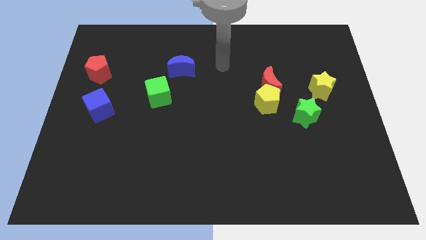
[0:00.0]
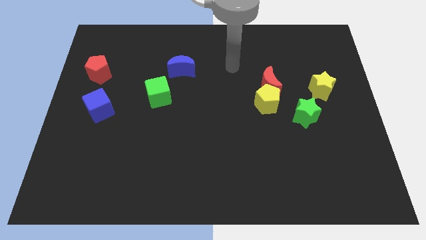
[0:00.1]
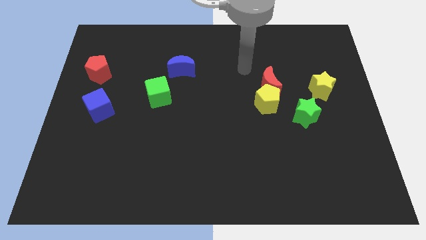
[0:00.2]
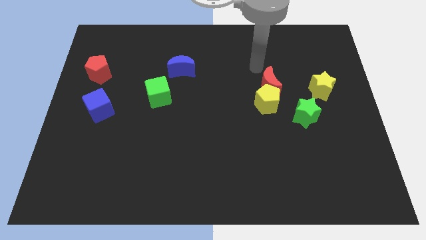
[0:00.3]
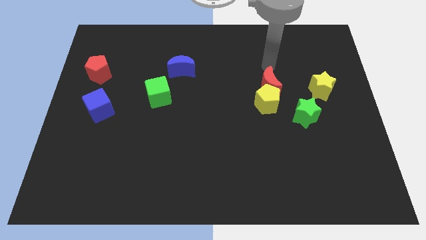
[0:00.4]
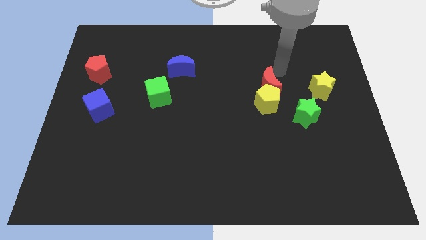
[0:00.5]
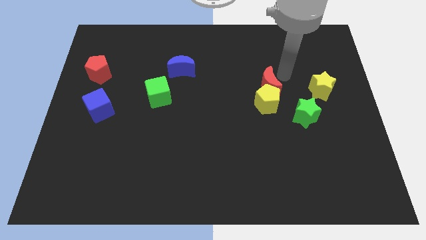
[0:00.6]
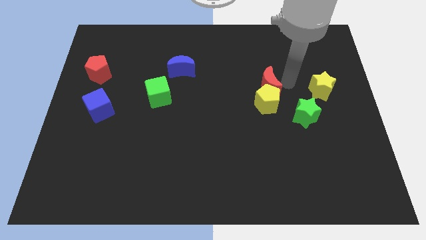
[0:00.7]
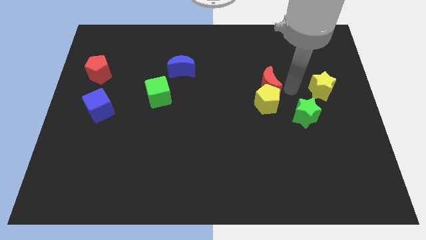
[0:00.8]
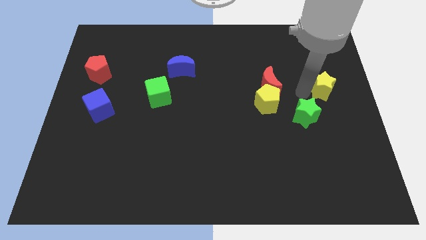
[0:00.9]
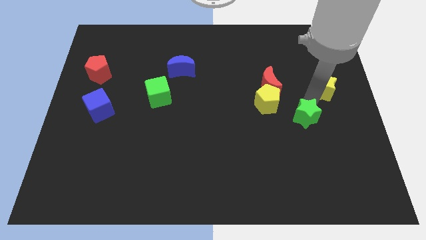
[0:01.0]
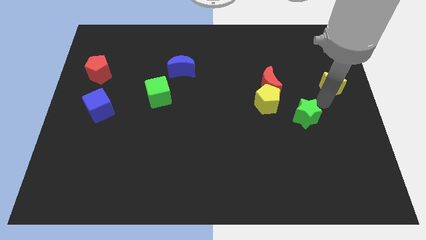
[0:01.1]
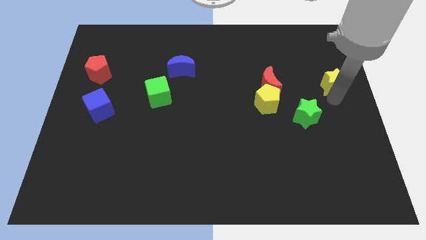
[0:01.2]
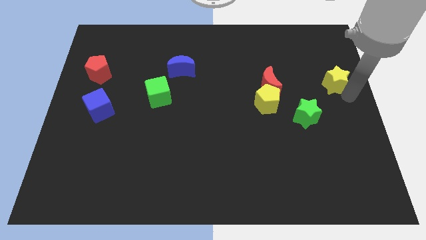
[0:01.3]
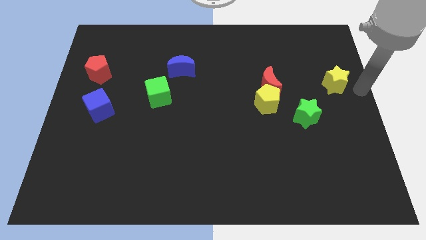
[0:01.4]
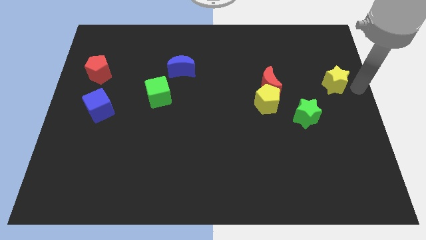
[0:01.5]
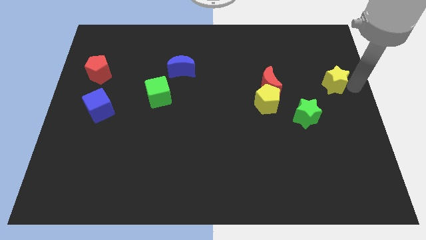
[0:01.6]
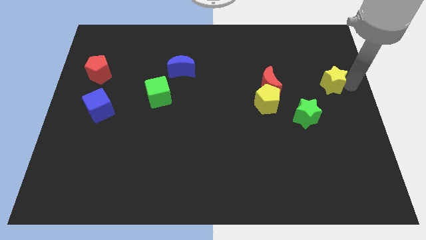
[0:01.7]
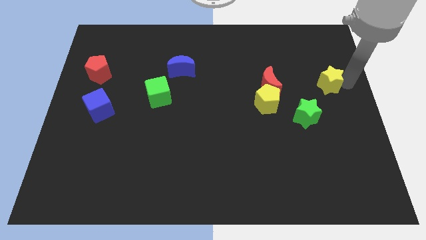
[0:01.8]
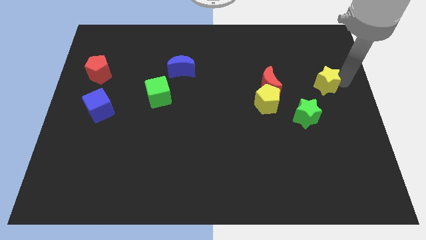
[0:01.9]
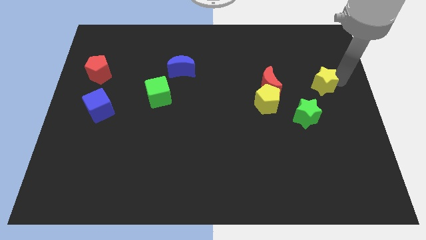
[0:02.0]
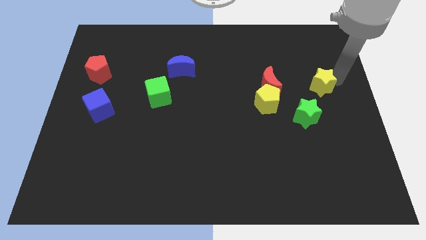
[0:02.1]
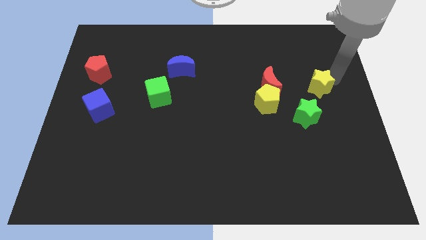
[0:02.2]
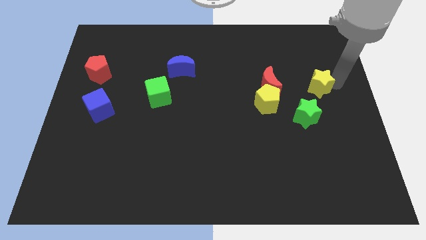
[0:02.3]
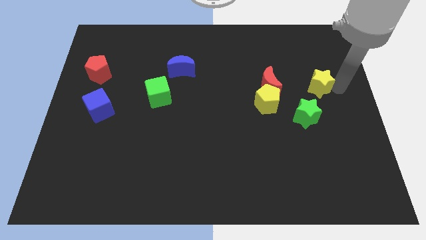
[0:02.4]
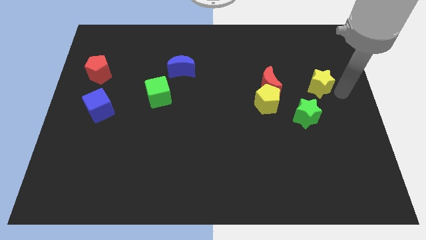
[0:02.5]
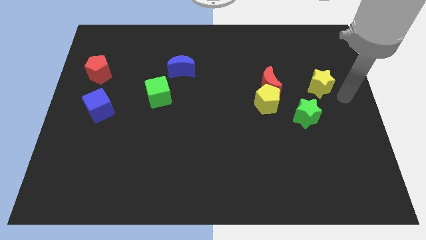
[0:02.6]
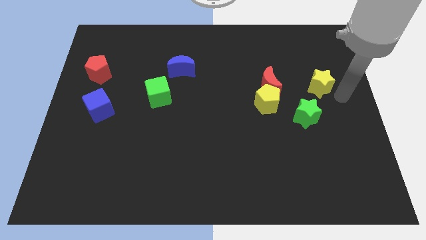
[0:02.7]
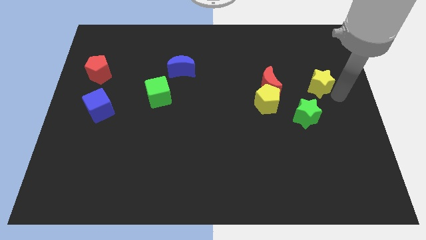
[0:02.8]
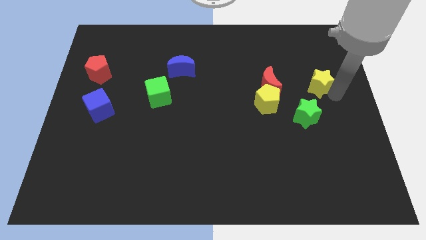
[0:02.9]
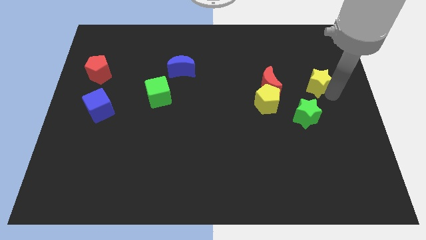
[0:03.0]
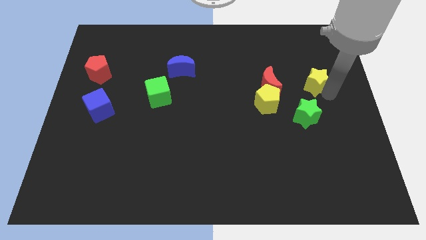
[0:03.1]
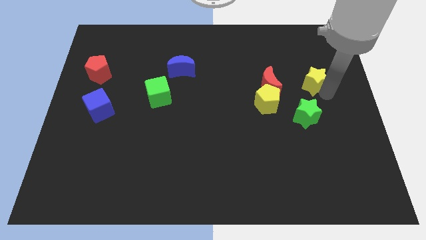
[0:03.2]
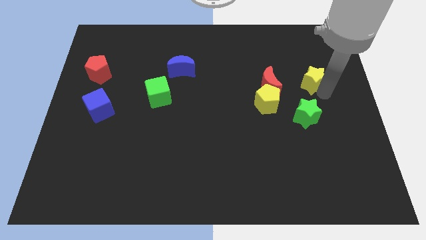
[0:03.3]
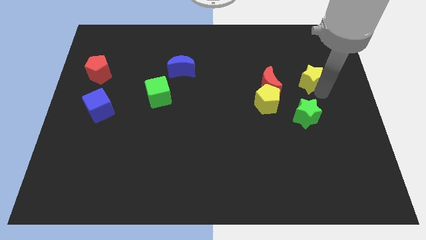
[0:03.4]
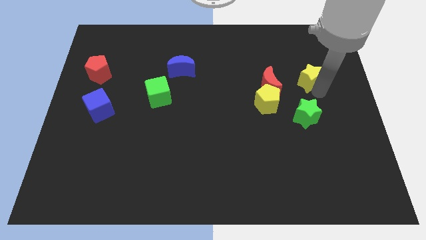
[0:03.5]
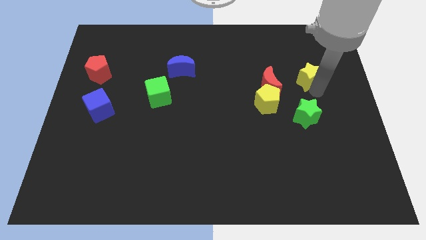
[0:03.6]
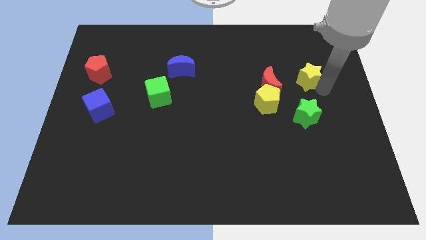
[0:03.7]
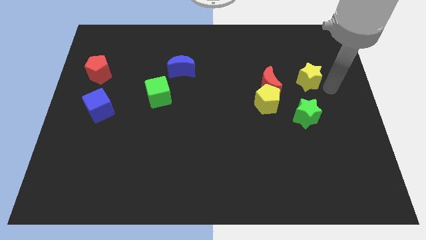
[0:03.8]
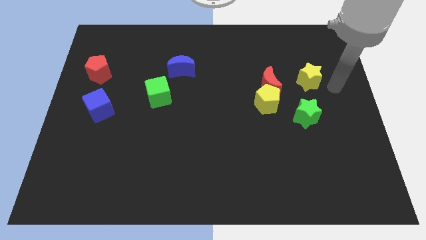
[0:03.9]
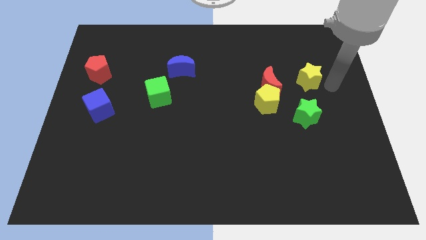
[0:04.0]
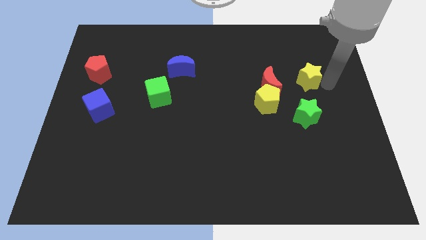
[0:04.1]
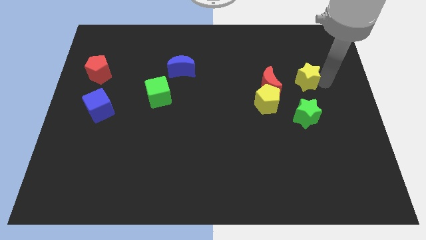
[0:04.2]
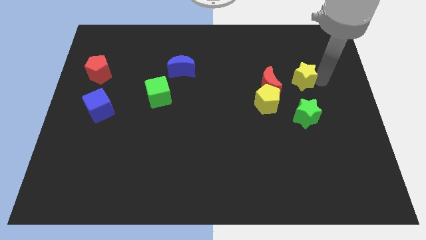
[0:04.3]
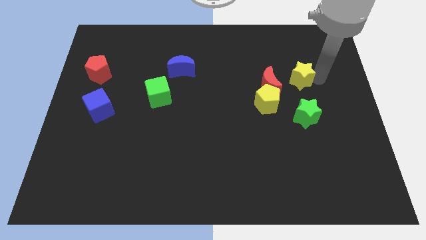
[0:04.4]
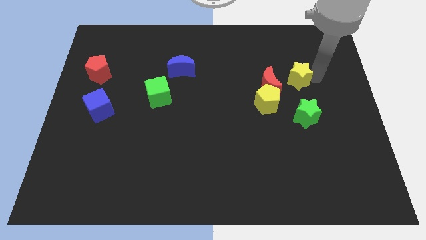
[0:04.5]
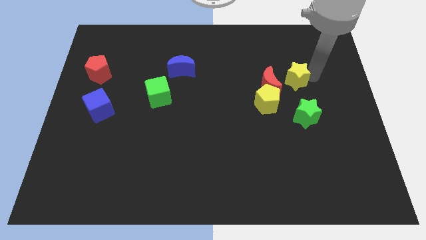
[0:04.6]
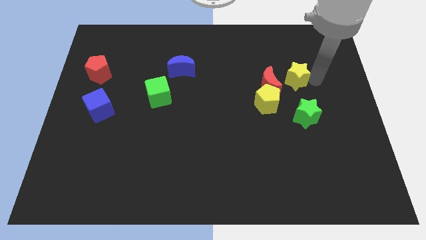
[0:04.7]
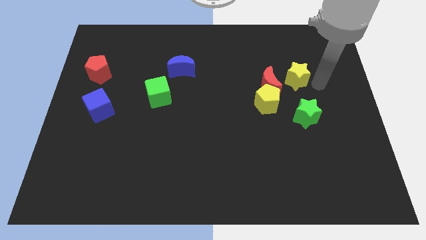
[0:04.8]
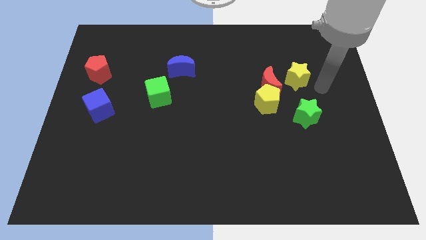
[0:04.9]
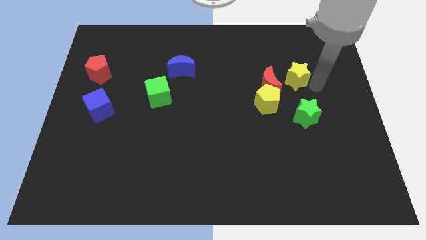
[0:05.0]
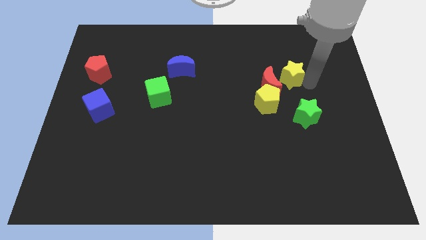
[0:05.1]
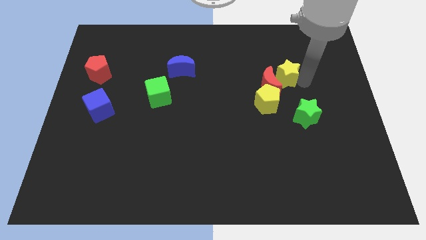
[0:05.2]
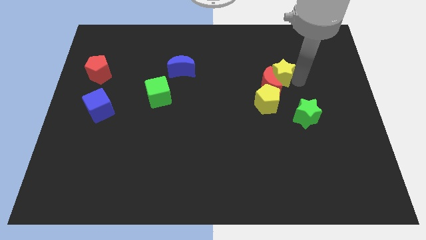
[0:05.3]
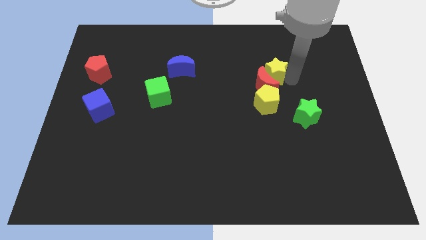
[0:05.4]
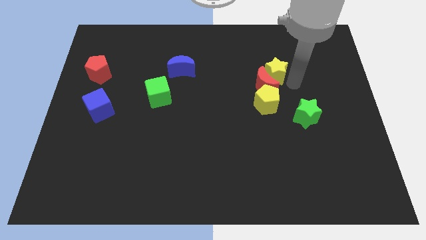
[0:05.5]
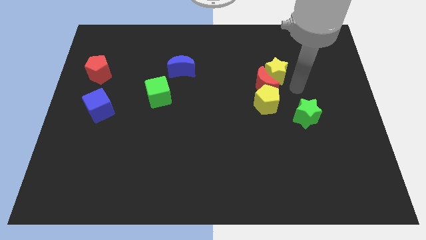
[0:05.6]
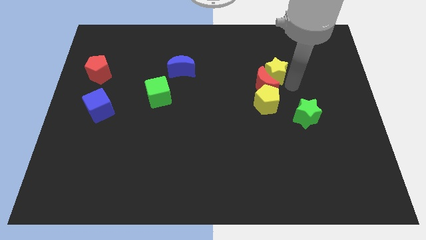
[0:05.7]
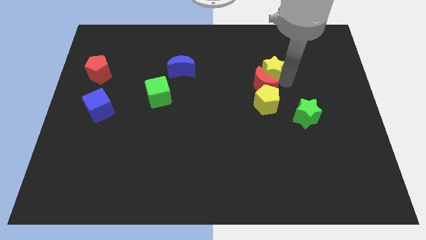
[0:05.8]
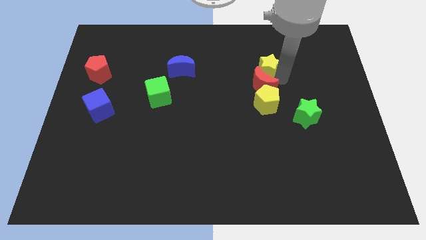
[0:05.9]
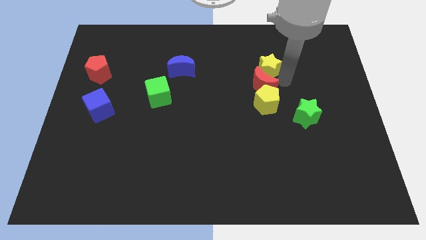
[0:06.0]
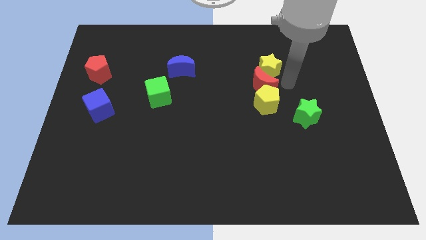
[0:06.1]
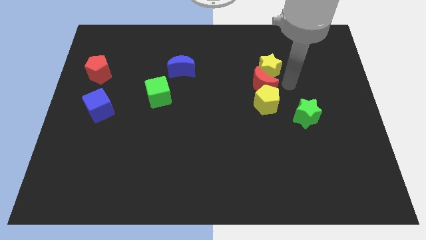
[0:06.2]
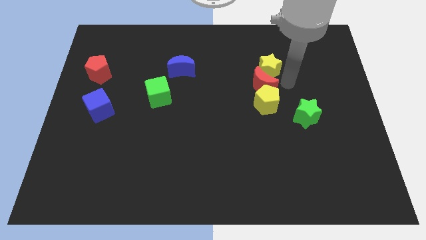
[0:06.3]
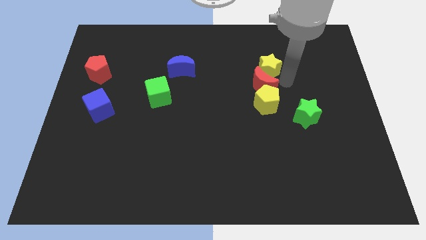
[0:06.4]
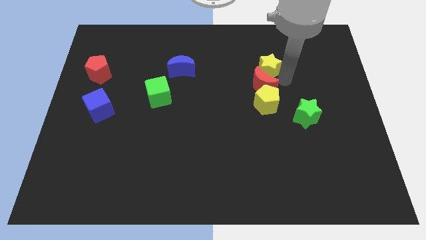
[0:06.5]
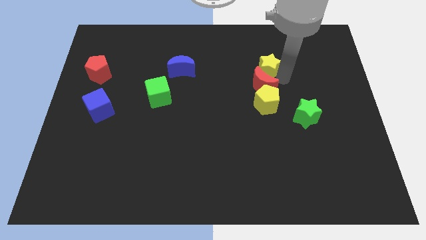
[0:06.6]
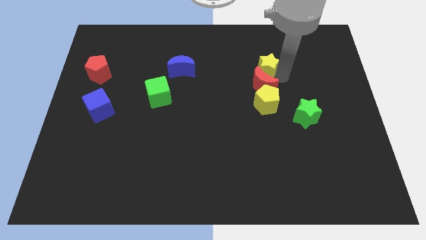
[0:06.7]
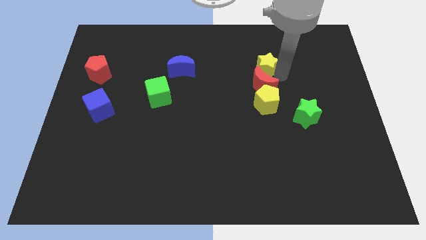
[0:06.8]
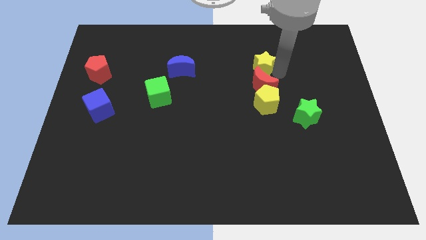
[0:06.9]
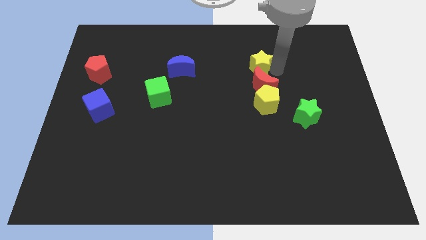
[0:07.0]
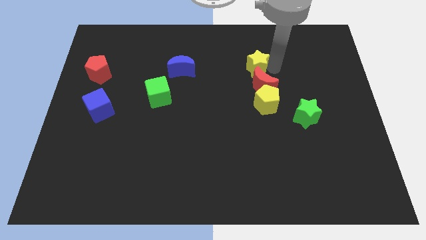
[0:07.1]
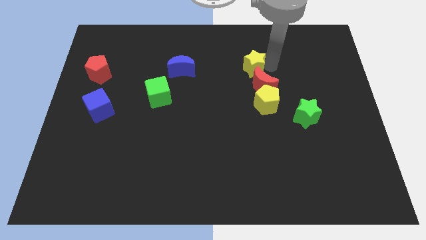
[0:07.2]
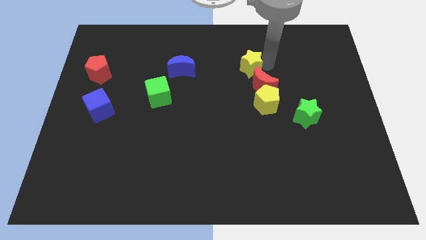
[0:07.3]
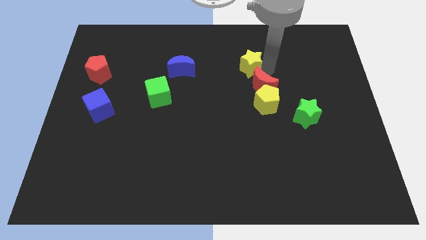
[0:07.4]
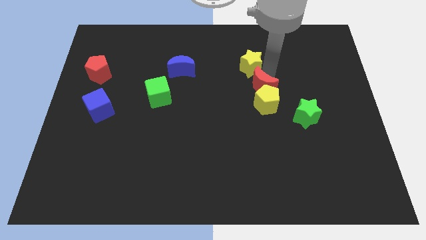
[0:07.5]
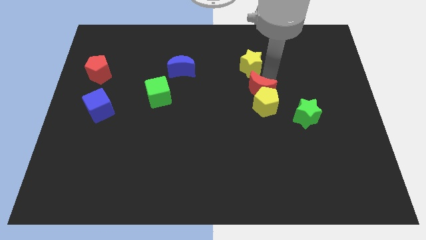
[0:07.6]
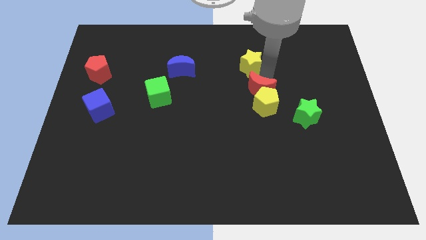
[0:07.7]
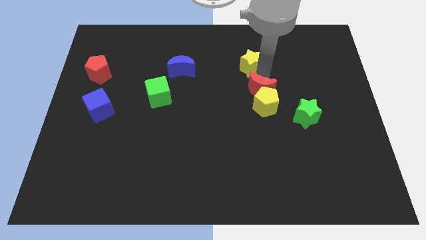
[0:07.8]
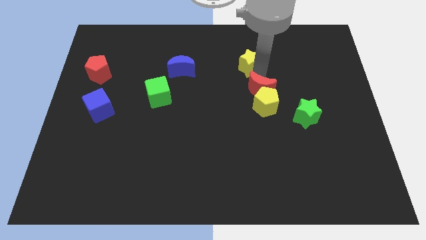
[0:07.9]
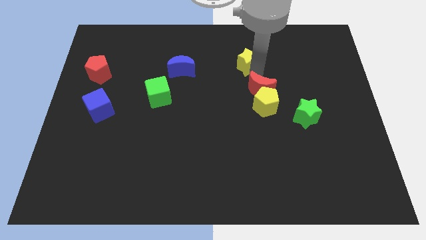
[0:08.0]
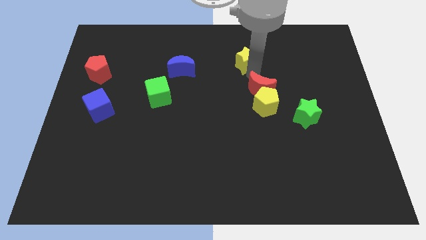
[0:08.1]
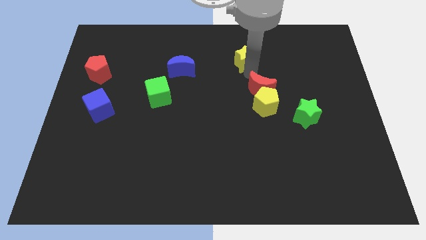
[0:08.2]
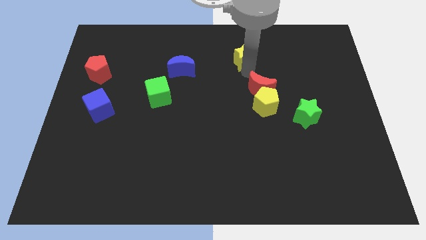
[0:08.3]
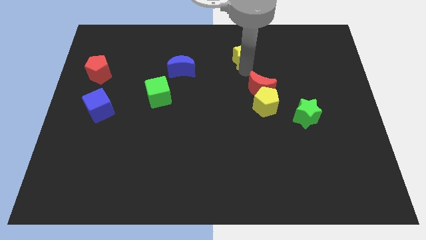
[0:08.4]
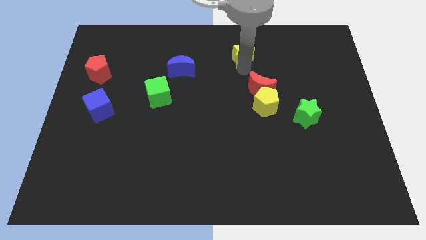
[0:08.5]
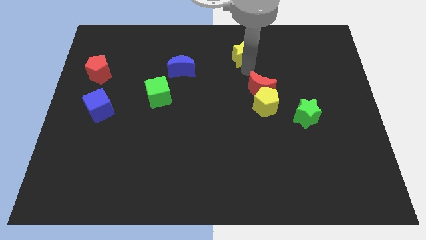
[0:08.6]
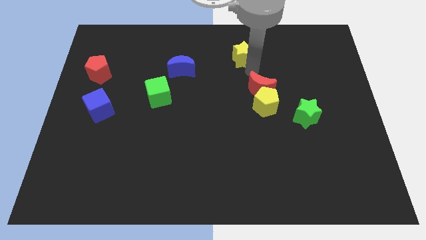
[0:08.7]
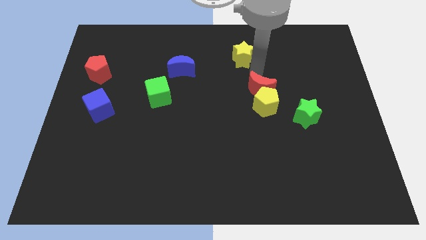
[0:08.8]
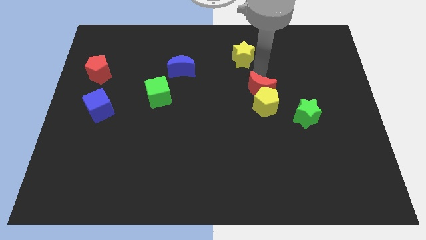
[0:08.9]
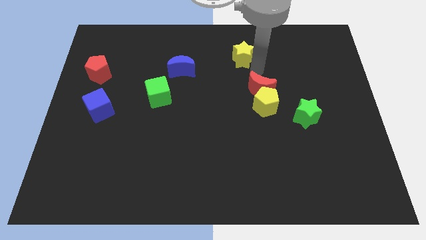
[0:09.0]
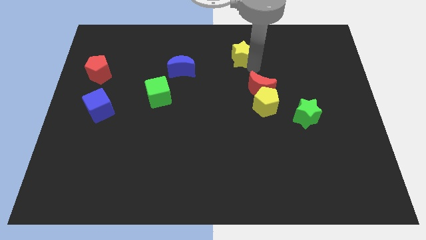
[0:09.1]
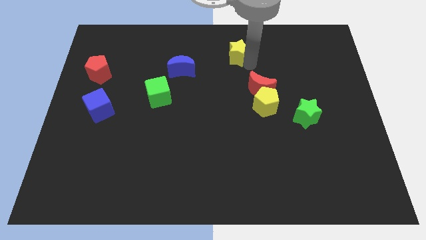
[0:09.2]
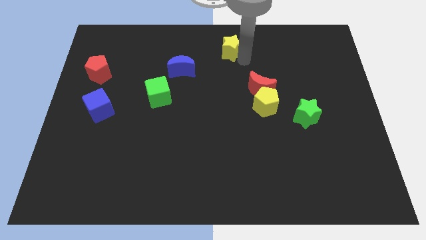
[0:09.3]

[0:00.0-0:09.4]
move the yellow star to the top
